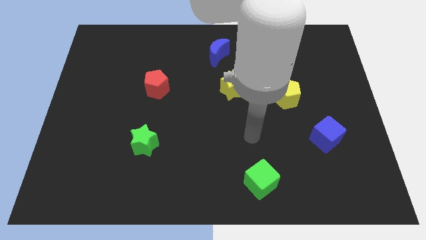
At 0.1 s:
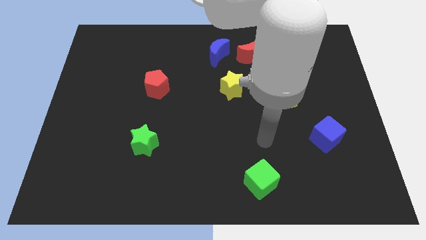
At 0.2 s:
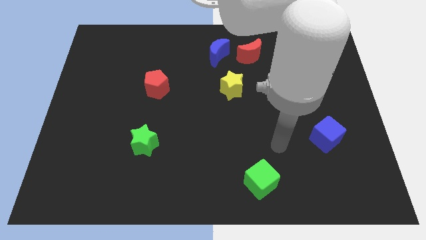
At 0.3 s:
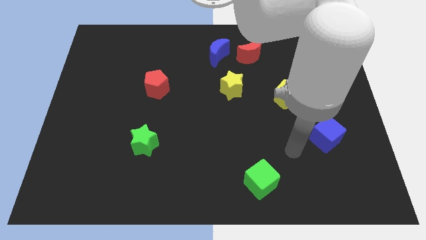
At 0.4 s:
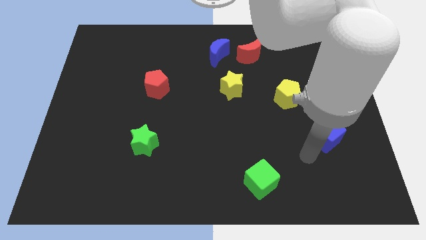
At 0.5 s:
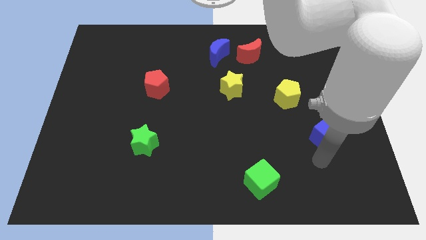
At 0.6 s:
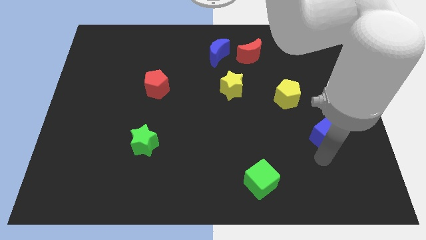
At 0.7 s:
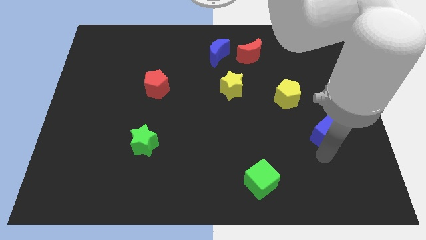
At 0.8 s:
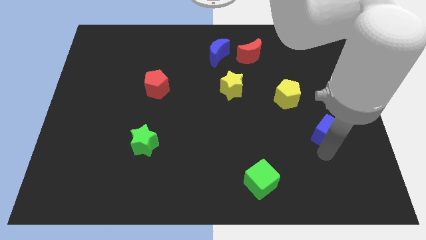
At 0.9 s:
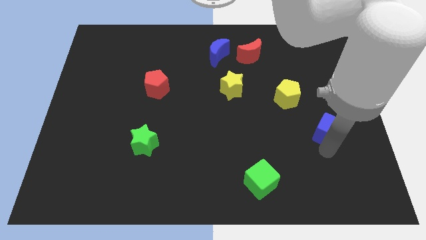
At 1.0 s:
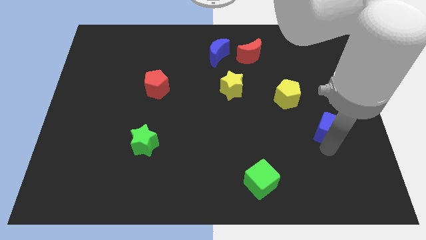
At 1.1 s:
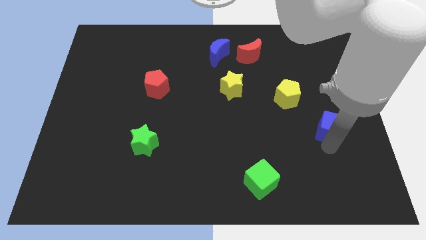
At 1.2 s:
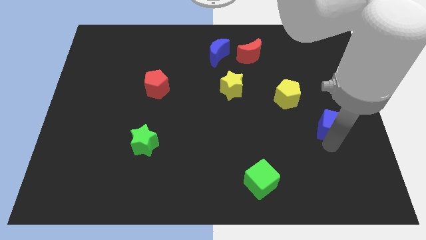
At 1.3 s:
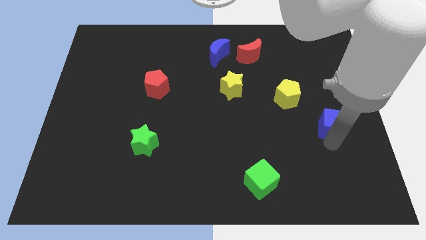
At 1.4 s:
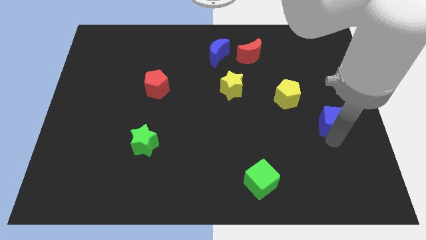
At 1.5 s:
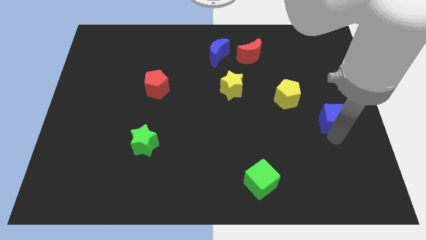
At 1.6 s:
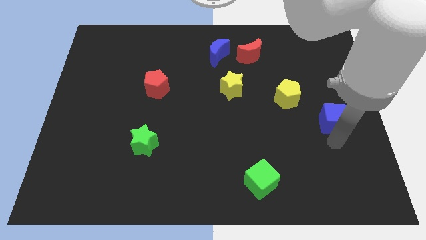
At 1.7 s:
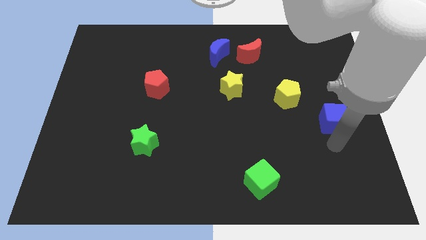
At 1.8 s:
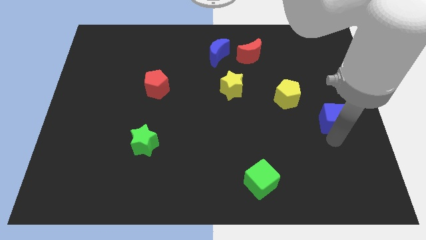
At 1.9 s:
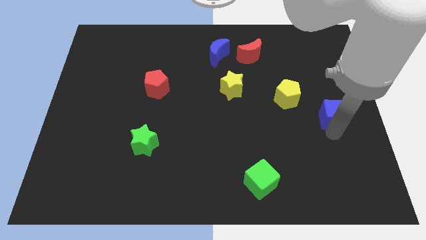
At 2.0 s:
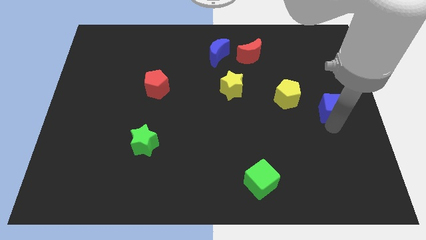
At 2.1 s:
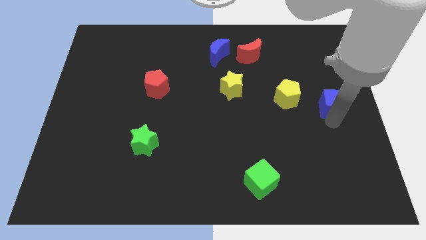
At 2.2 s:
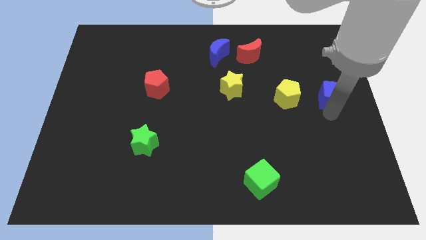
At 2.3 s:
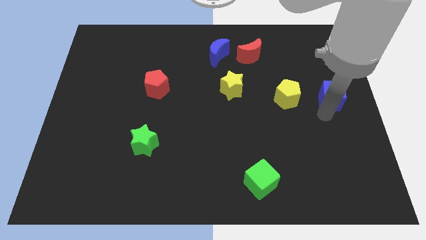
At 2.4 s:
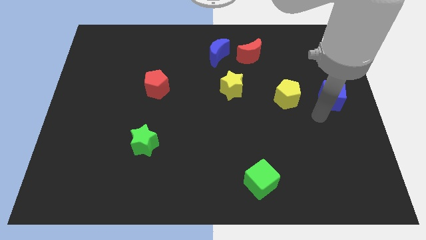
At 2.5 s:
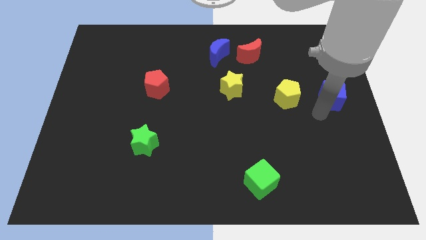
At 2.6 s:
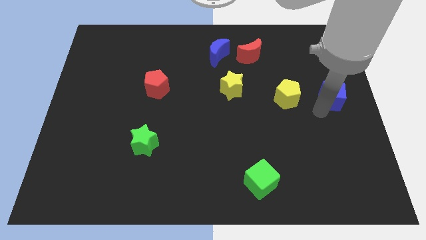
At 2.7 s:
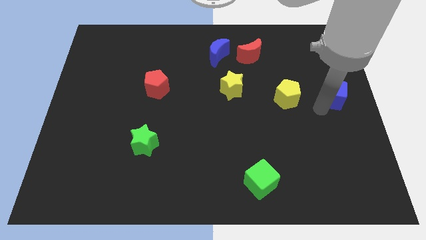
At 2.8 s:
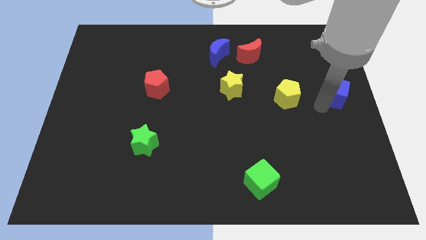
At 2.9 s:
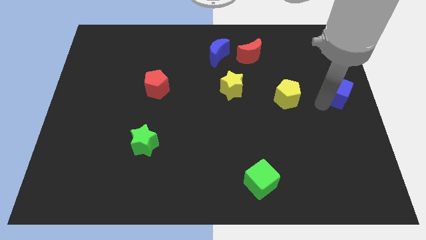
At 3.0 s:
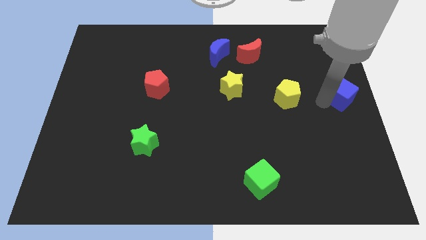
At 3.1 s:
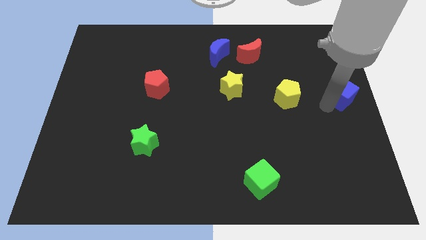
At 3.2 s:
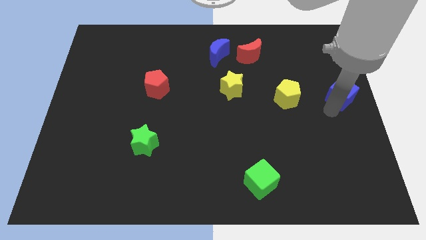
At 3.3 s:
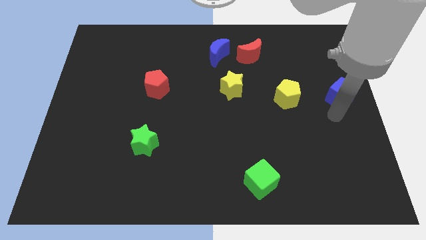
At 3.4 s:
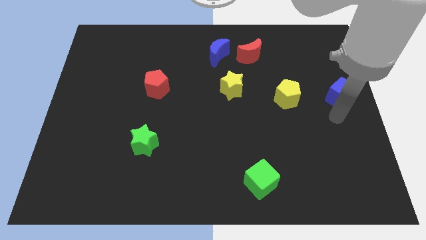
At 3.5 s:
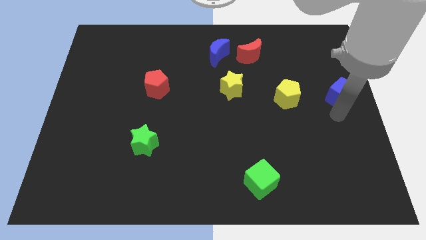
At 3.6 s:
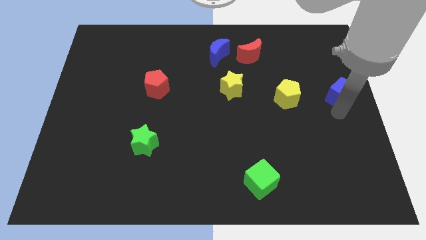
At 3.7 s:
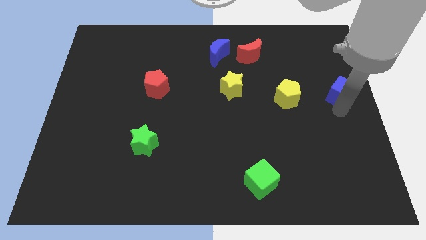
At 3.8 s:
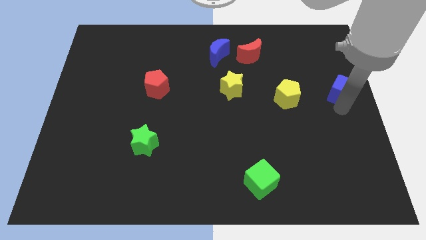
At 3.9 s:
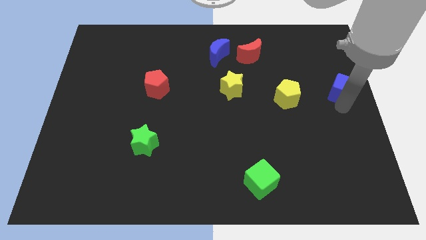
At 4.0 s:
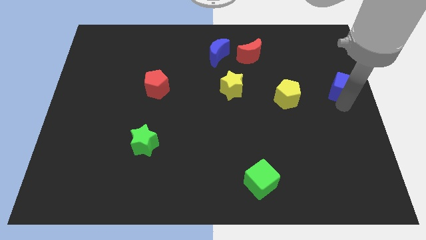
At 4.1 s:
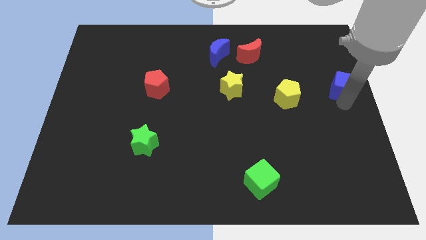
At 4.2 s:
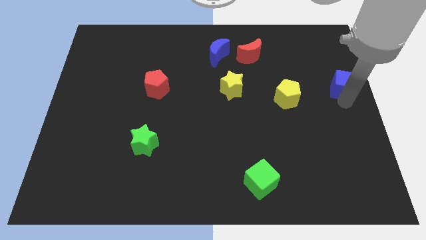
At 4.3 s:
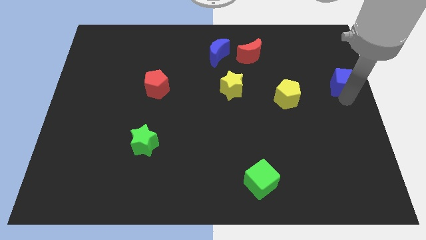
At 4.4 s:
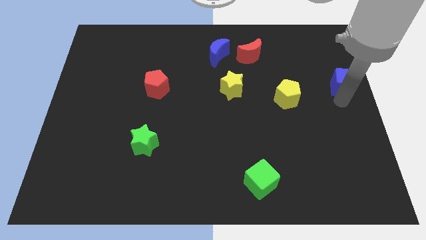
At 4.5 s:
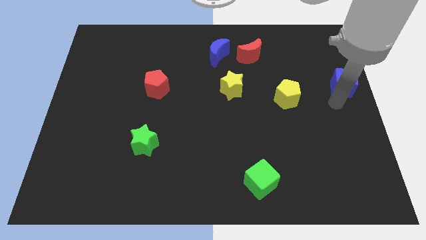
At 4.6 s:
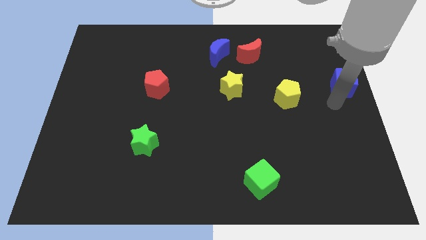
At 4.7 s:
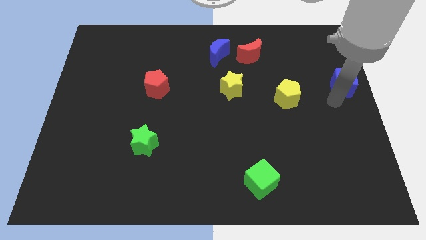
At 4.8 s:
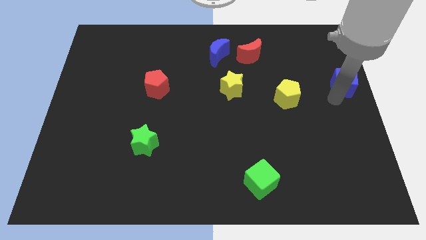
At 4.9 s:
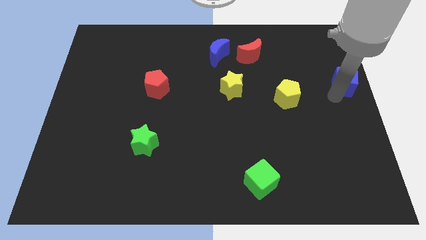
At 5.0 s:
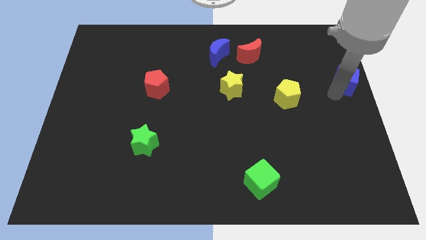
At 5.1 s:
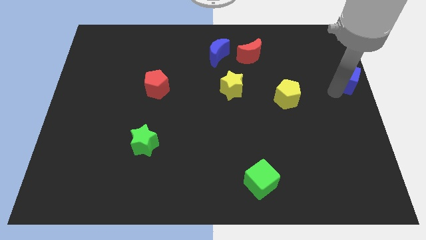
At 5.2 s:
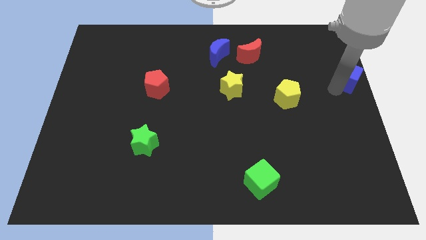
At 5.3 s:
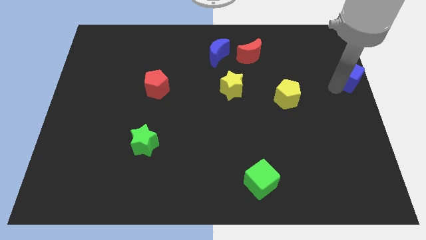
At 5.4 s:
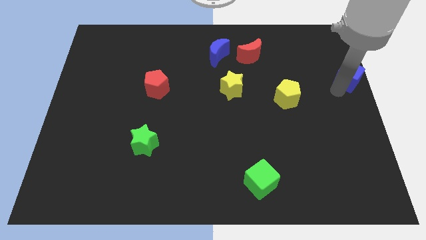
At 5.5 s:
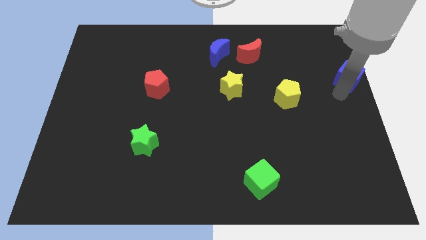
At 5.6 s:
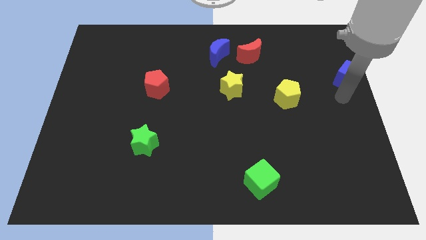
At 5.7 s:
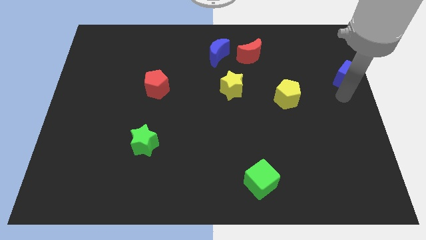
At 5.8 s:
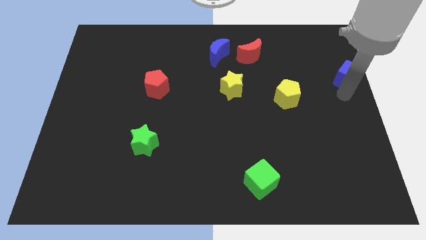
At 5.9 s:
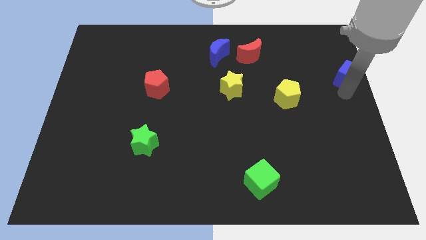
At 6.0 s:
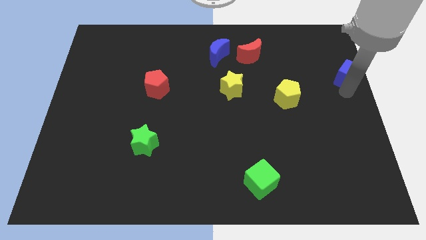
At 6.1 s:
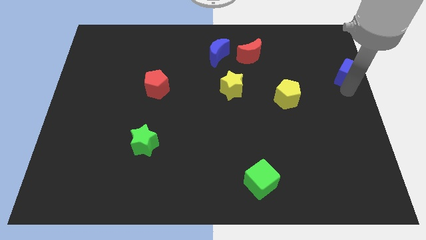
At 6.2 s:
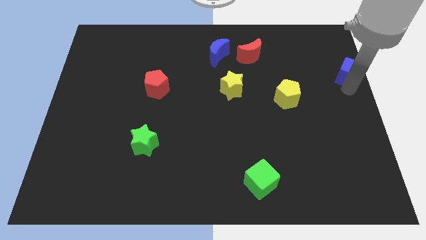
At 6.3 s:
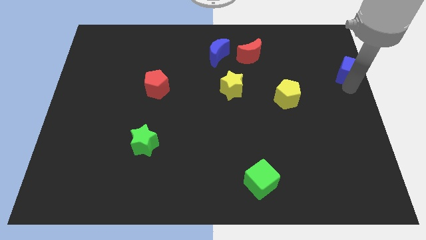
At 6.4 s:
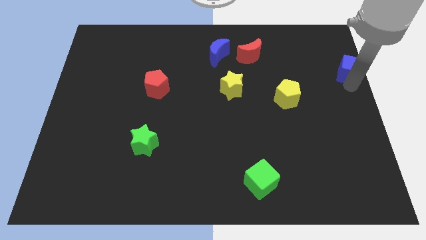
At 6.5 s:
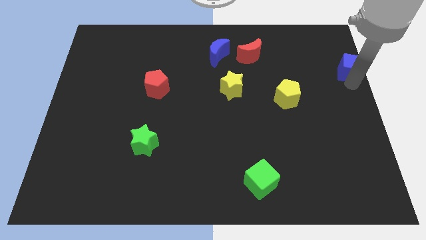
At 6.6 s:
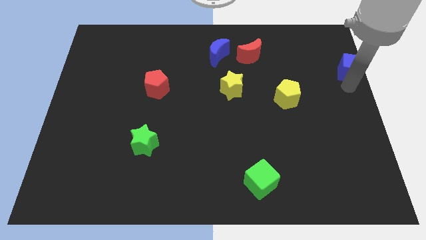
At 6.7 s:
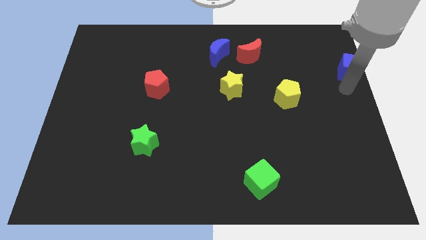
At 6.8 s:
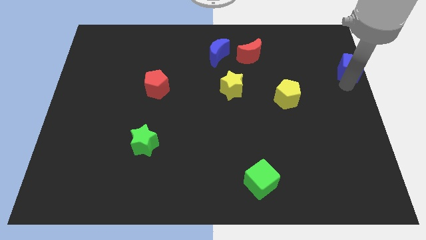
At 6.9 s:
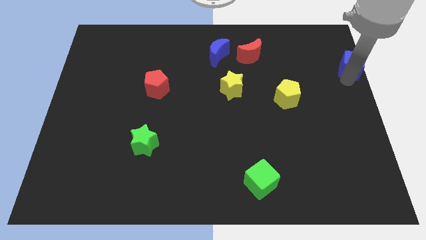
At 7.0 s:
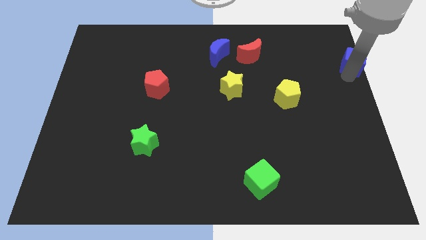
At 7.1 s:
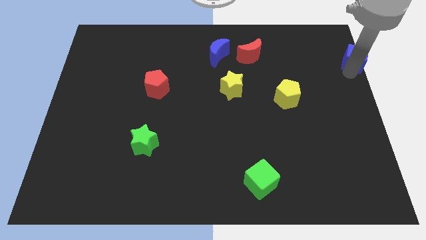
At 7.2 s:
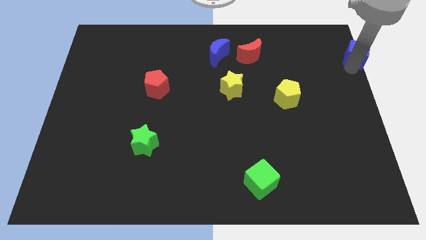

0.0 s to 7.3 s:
slide the blue cube to the top right
